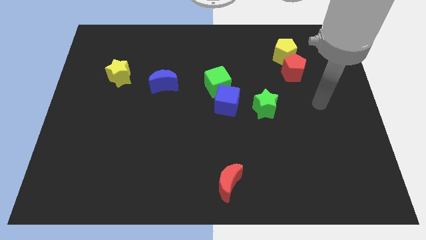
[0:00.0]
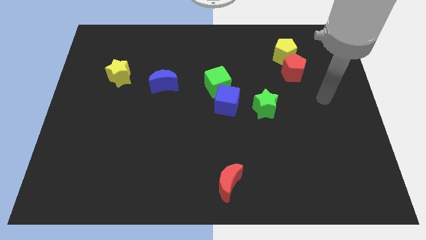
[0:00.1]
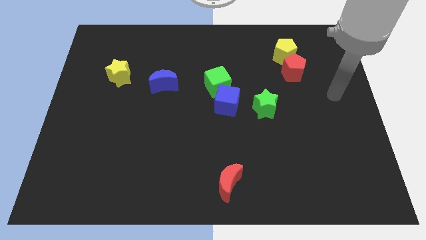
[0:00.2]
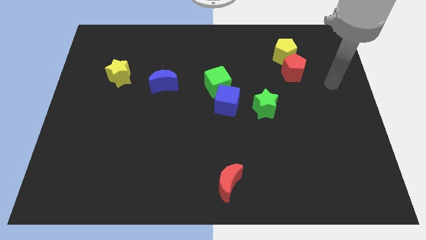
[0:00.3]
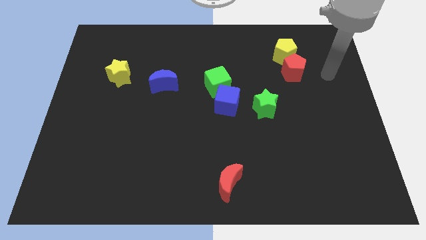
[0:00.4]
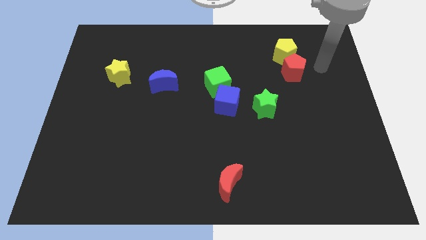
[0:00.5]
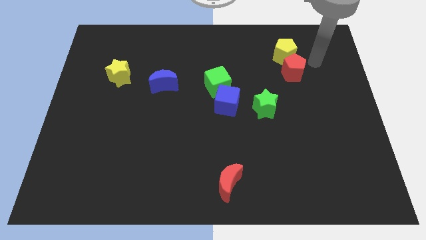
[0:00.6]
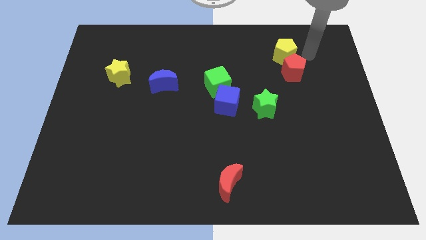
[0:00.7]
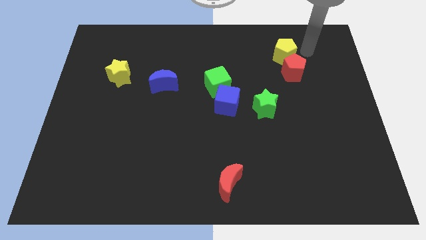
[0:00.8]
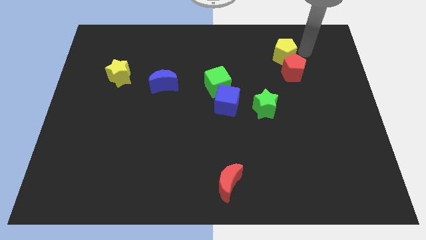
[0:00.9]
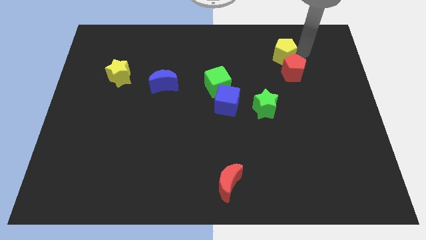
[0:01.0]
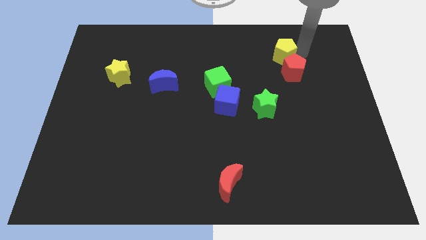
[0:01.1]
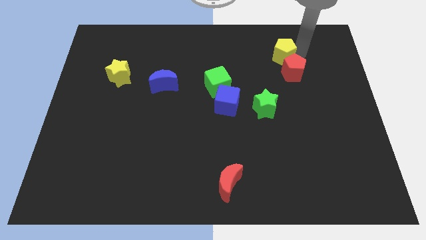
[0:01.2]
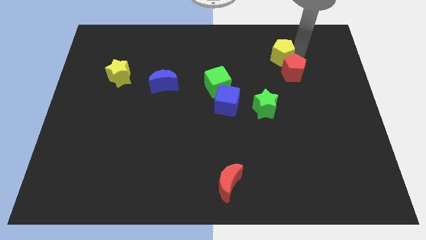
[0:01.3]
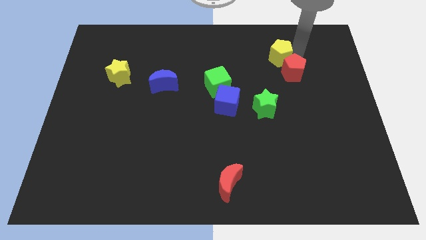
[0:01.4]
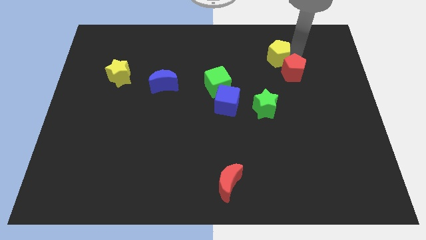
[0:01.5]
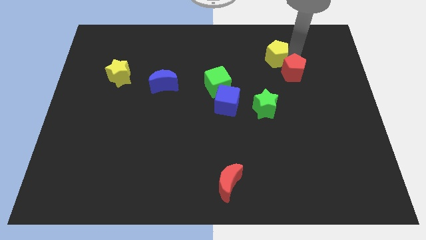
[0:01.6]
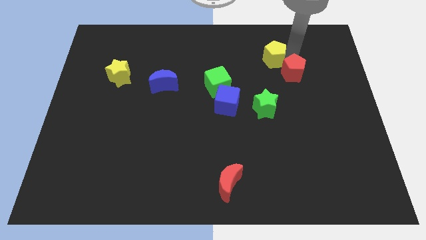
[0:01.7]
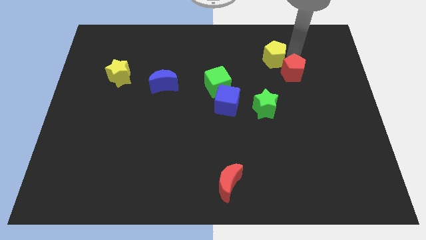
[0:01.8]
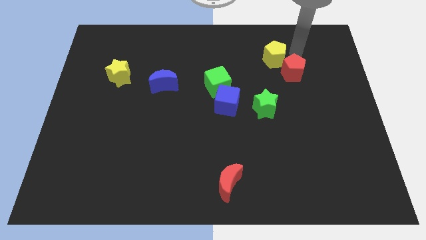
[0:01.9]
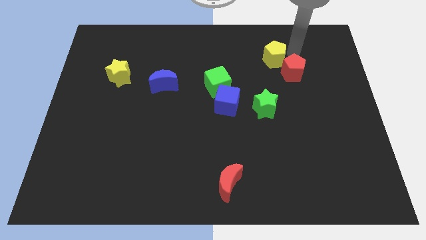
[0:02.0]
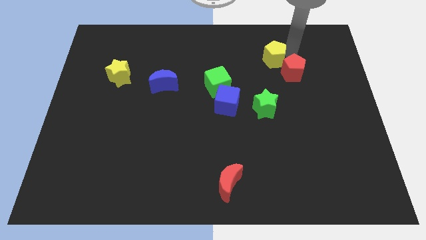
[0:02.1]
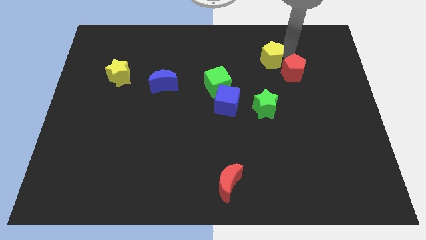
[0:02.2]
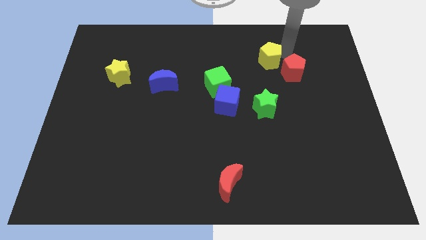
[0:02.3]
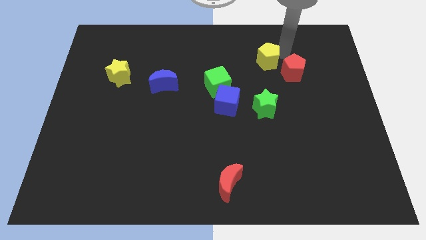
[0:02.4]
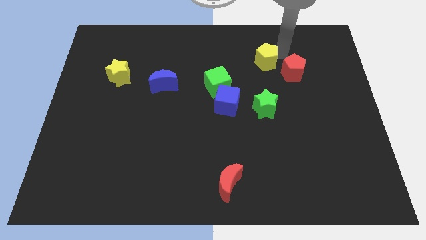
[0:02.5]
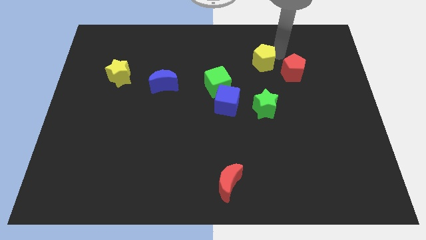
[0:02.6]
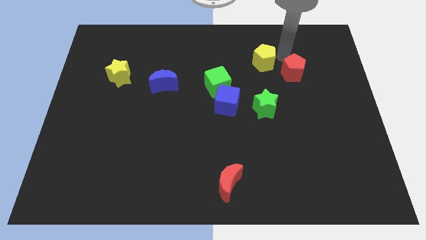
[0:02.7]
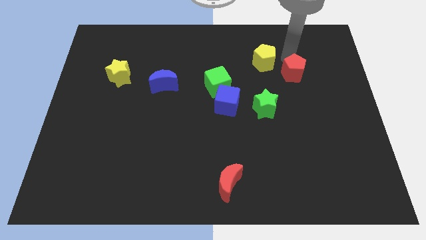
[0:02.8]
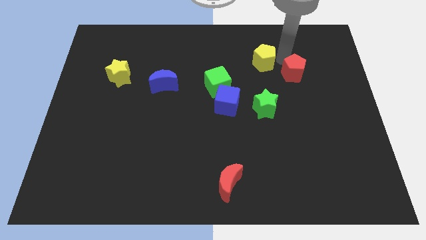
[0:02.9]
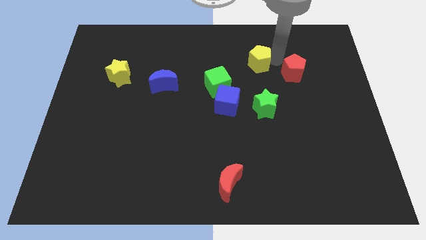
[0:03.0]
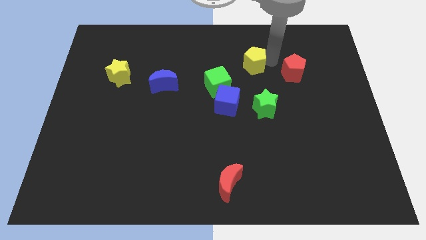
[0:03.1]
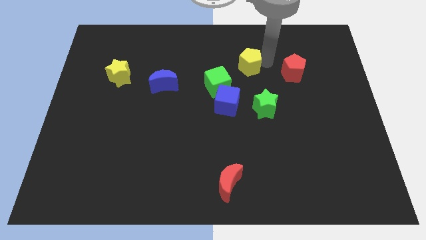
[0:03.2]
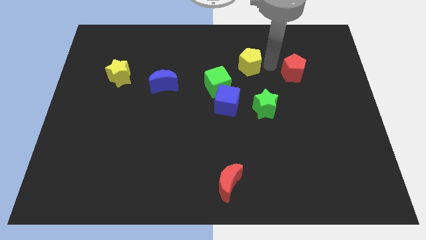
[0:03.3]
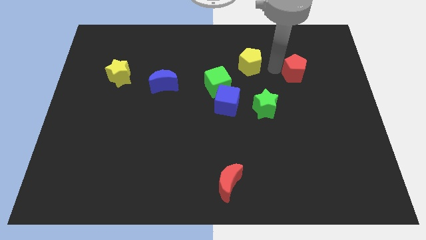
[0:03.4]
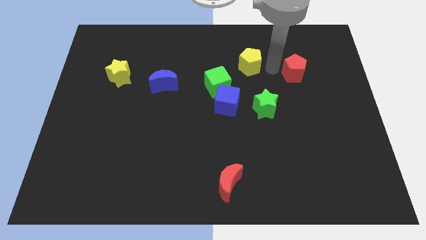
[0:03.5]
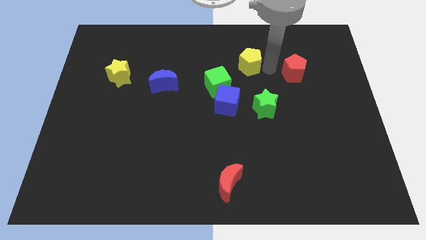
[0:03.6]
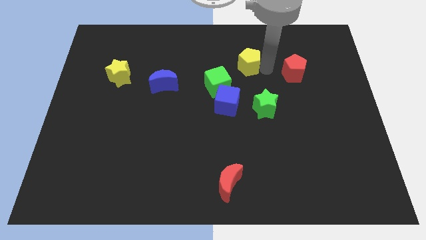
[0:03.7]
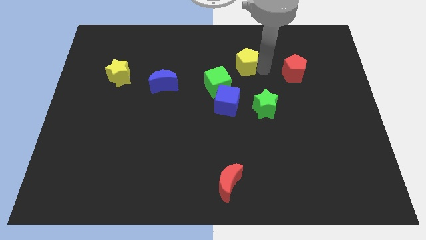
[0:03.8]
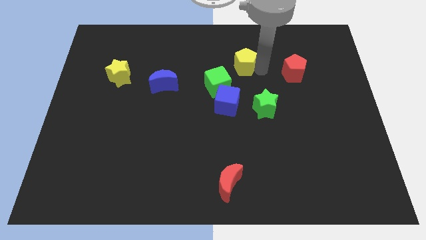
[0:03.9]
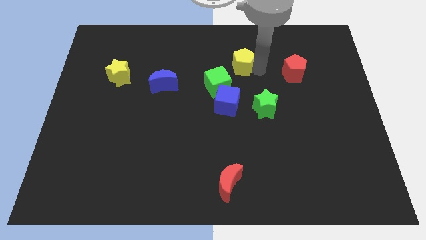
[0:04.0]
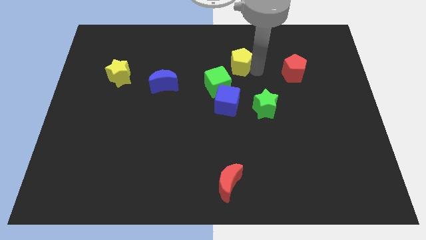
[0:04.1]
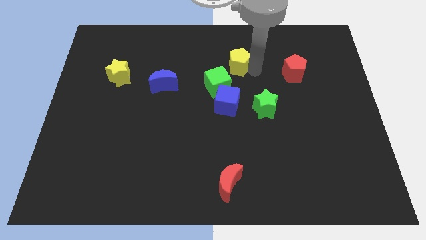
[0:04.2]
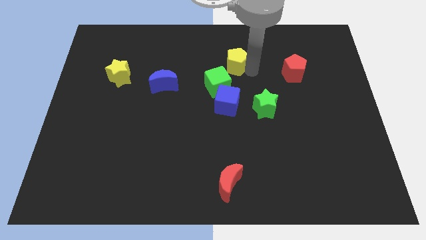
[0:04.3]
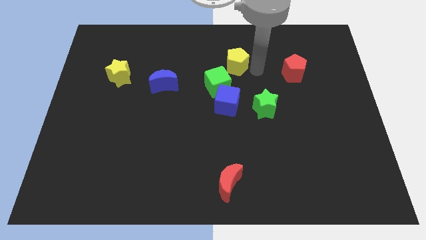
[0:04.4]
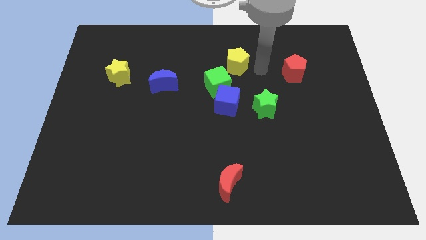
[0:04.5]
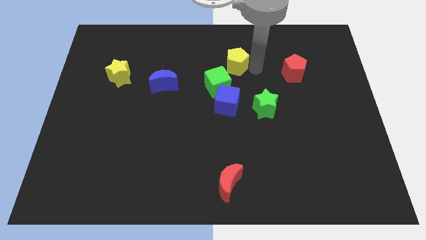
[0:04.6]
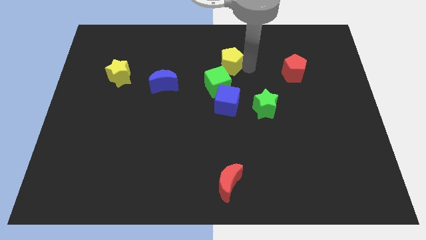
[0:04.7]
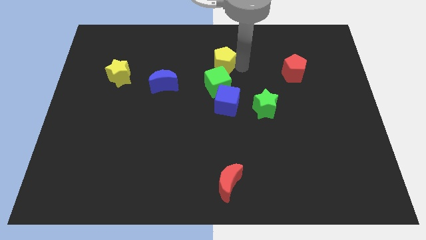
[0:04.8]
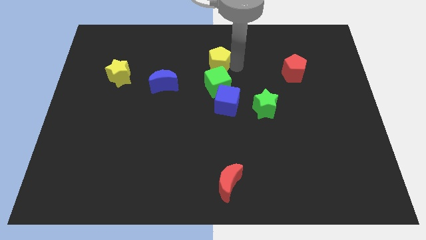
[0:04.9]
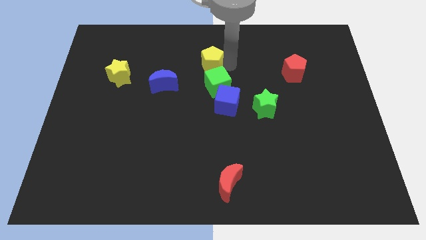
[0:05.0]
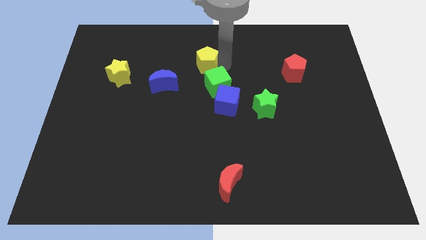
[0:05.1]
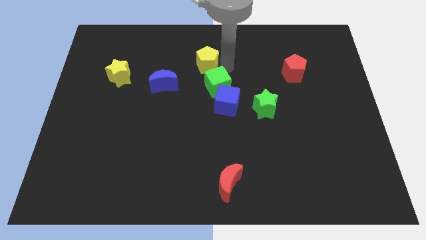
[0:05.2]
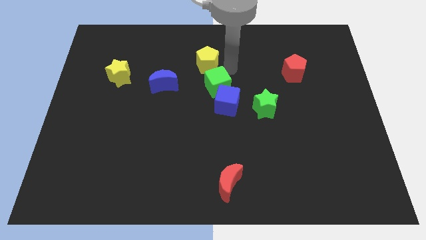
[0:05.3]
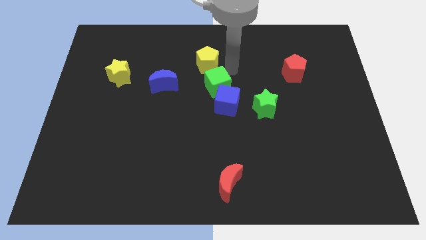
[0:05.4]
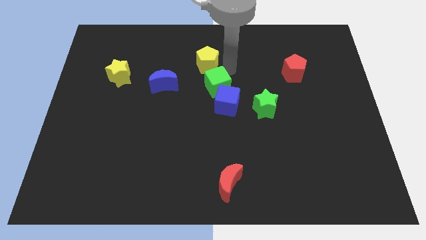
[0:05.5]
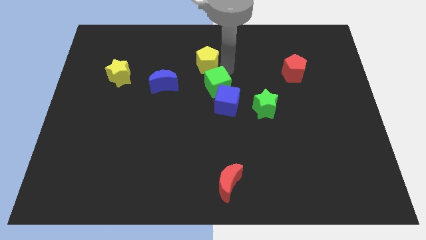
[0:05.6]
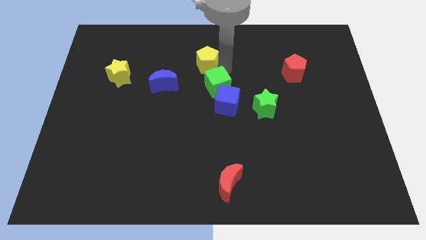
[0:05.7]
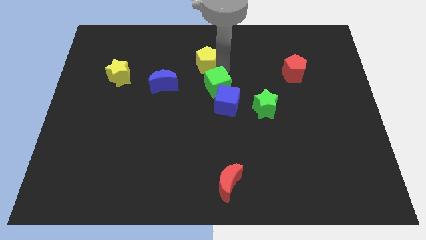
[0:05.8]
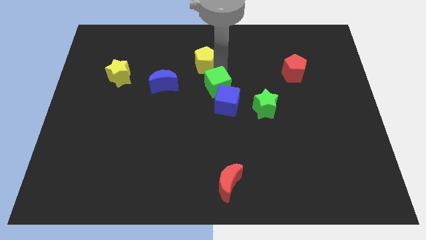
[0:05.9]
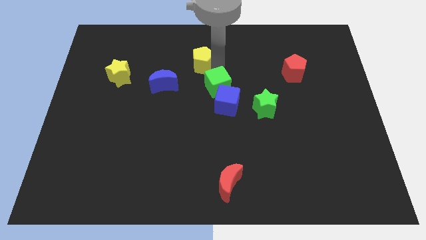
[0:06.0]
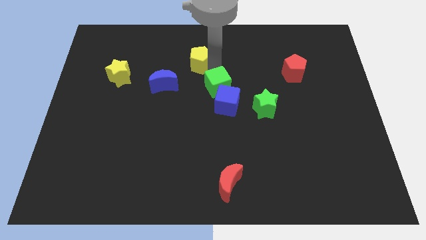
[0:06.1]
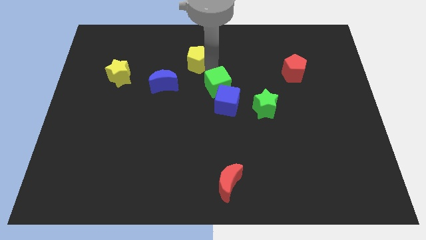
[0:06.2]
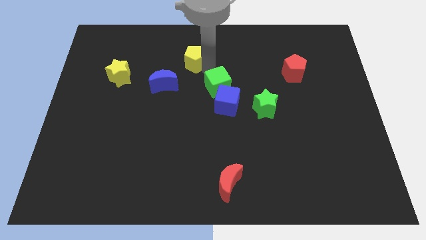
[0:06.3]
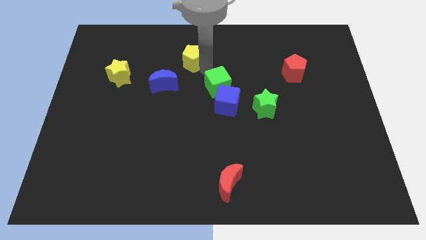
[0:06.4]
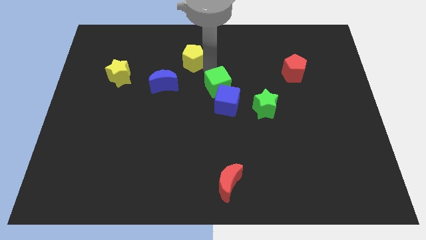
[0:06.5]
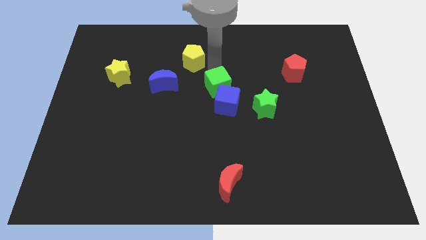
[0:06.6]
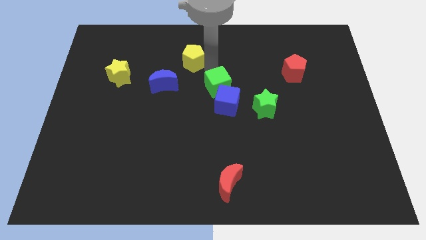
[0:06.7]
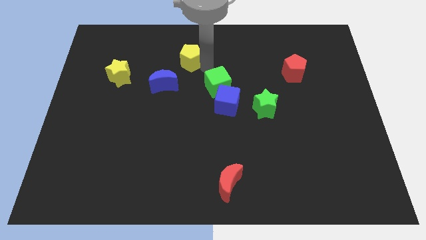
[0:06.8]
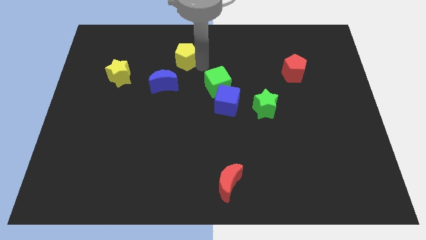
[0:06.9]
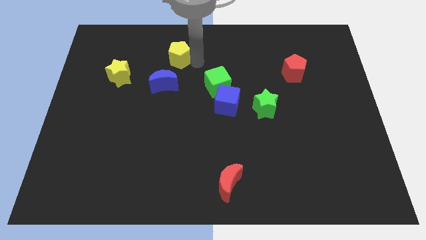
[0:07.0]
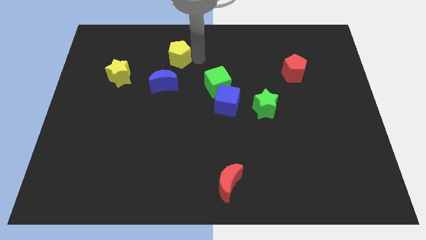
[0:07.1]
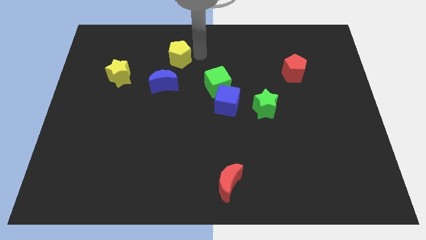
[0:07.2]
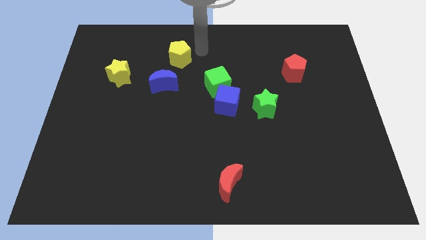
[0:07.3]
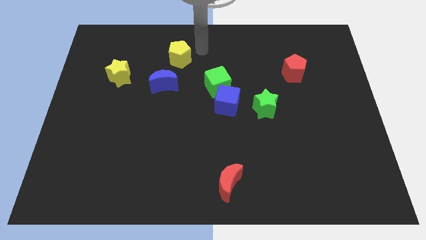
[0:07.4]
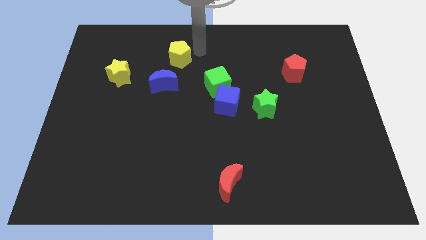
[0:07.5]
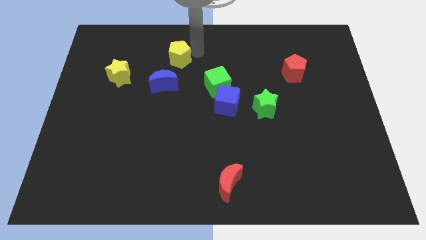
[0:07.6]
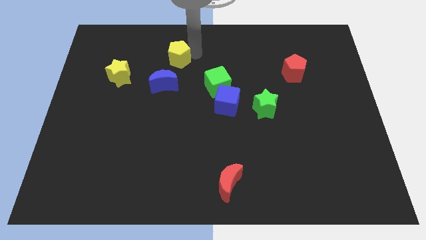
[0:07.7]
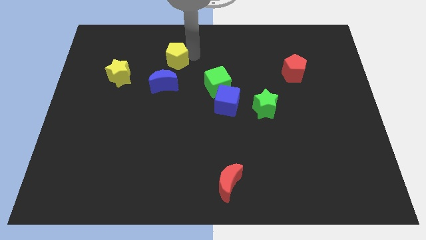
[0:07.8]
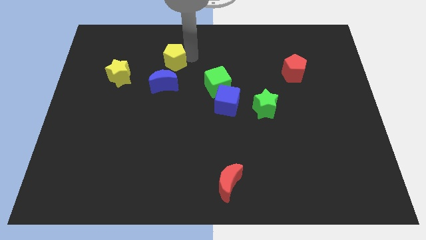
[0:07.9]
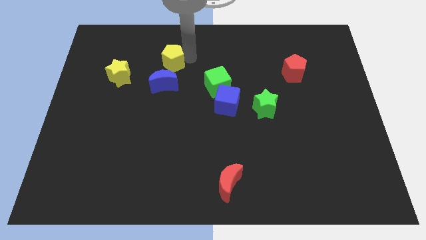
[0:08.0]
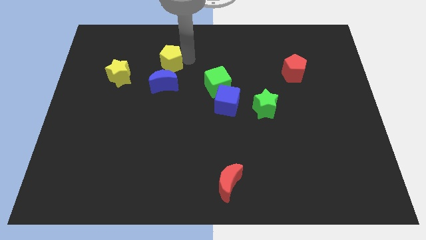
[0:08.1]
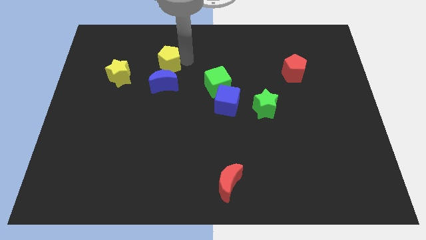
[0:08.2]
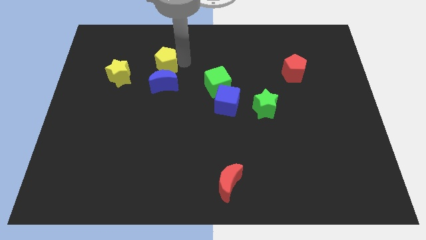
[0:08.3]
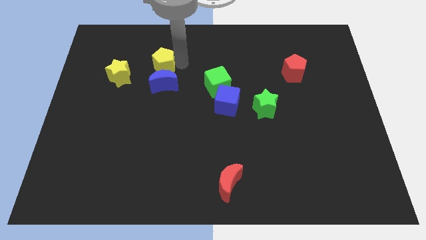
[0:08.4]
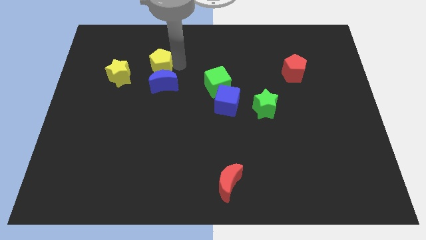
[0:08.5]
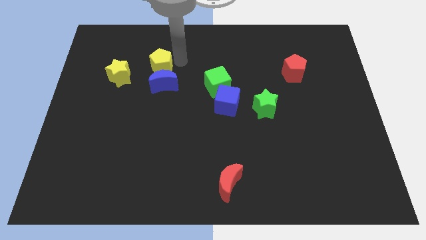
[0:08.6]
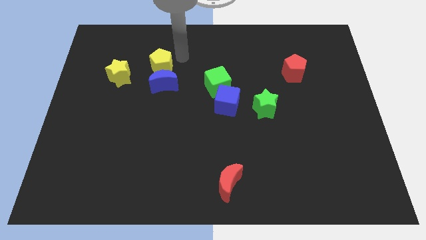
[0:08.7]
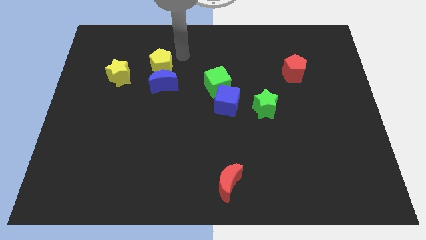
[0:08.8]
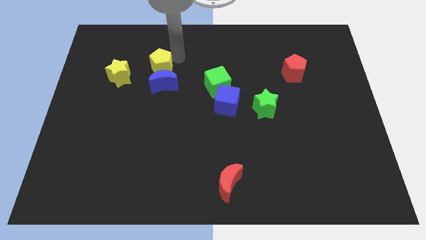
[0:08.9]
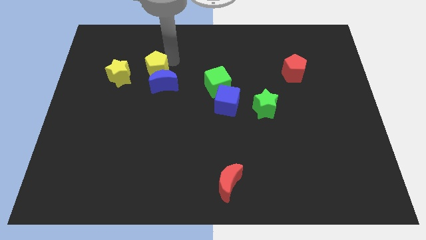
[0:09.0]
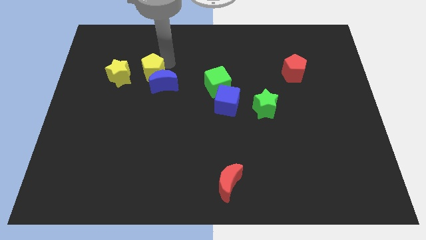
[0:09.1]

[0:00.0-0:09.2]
put the yellow pentagon to the left side of the blue moon
